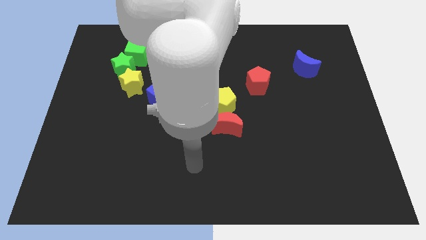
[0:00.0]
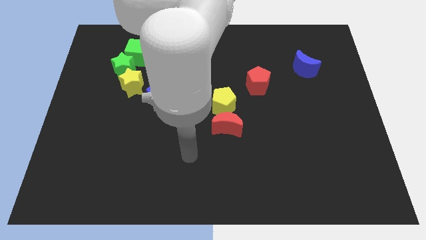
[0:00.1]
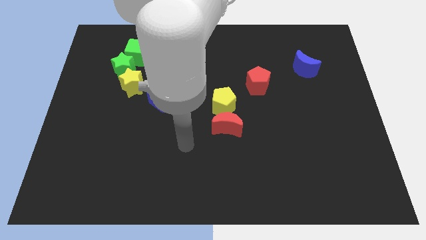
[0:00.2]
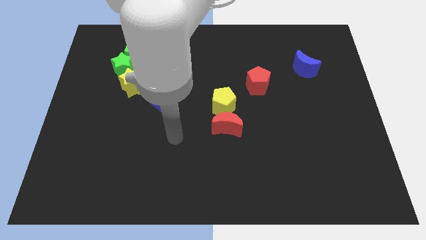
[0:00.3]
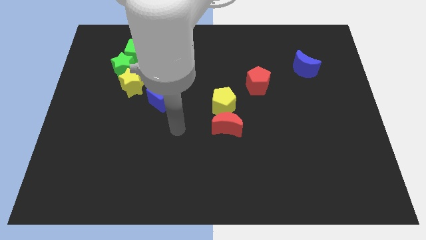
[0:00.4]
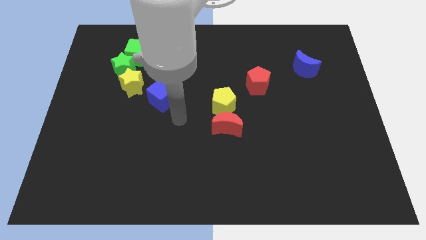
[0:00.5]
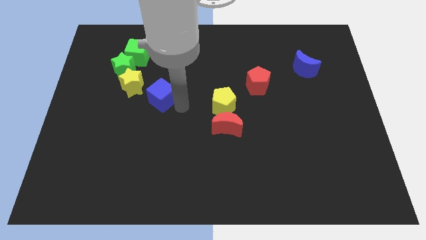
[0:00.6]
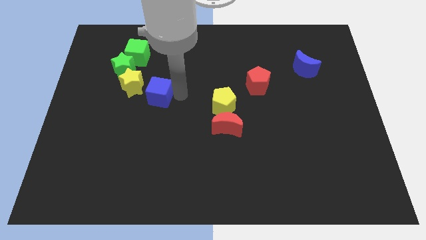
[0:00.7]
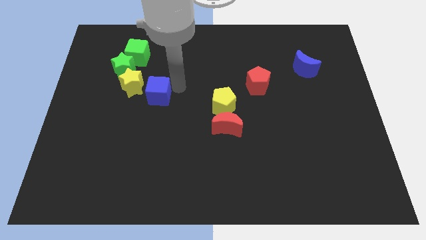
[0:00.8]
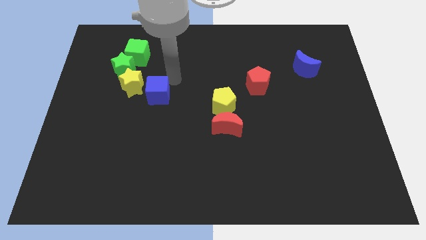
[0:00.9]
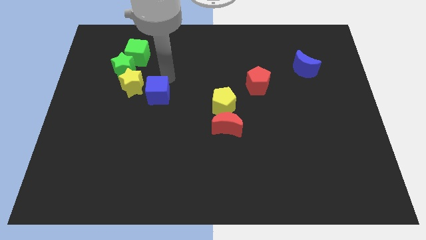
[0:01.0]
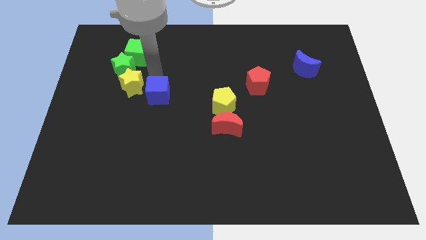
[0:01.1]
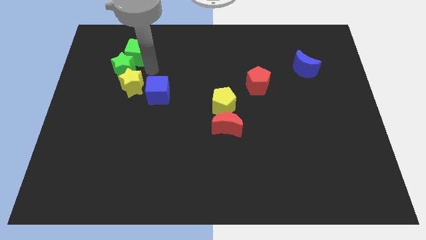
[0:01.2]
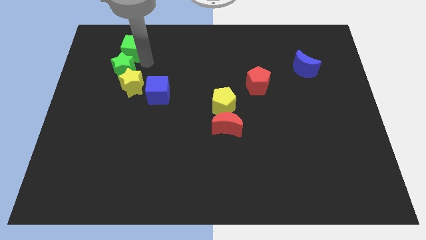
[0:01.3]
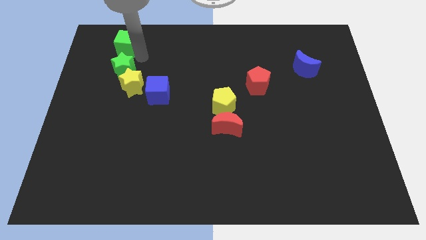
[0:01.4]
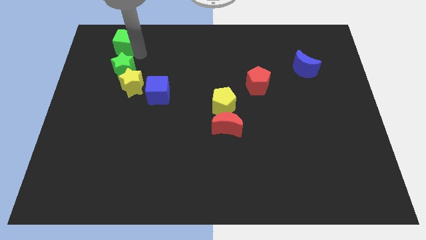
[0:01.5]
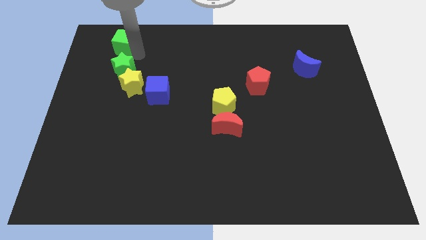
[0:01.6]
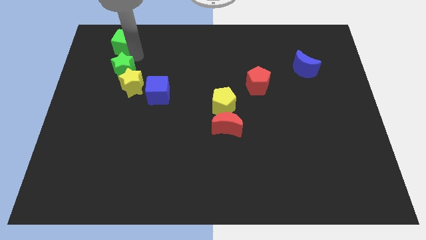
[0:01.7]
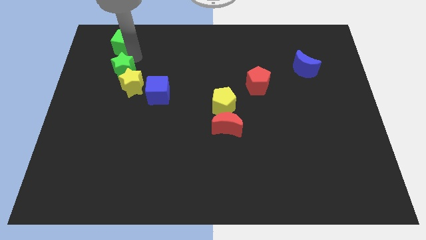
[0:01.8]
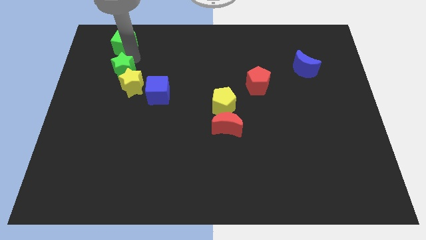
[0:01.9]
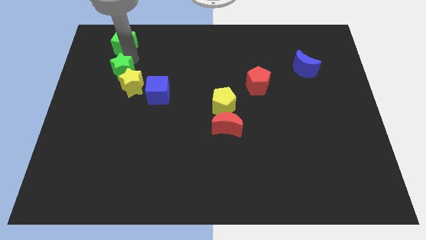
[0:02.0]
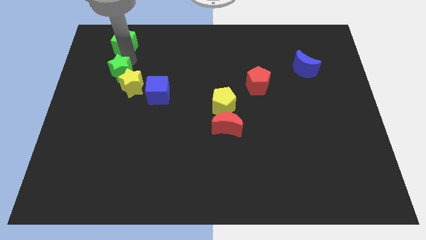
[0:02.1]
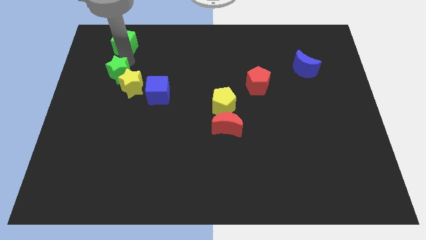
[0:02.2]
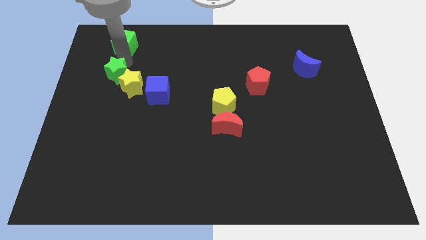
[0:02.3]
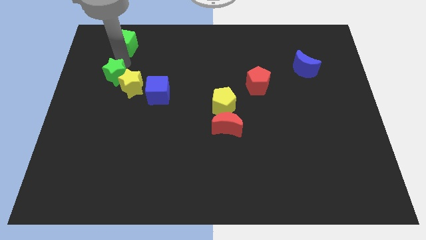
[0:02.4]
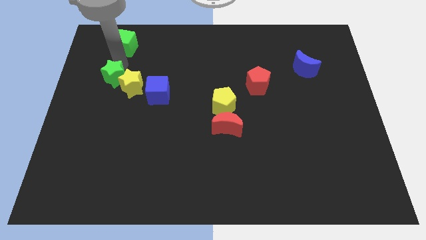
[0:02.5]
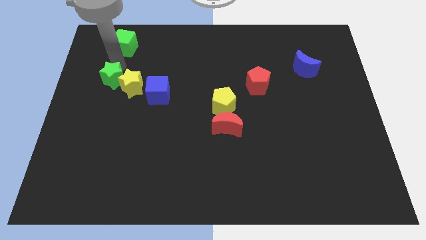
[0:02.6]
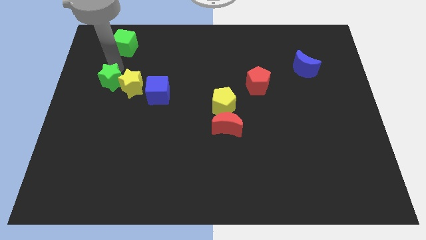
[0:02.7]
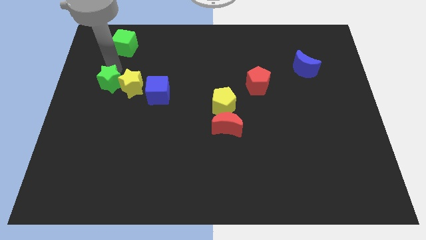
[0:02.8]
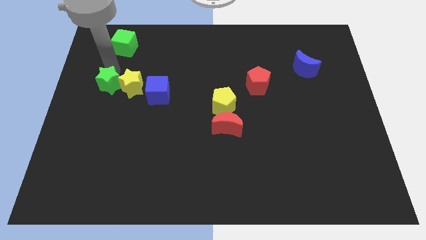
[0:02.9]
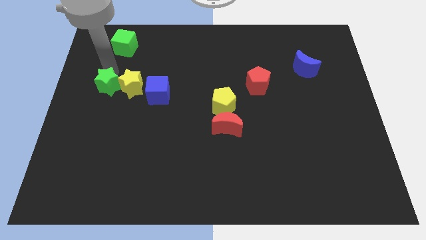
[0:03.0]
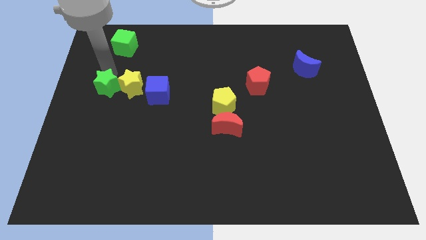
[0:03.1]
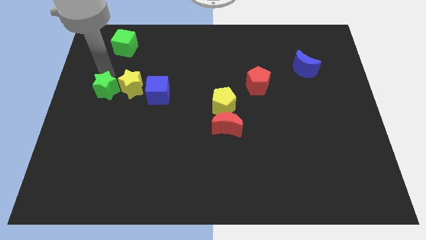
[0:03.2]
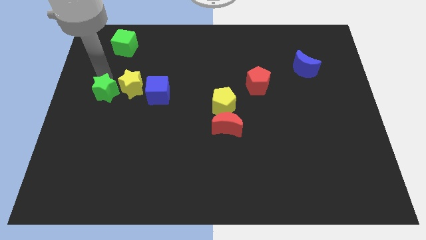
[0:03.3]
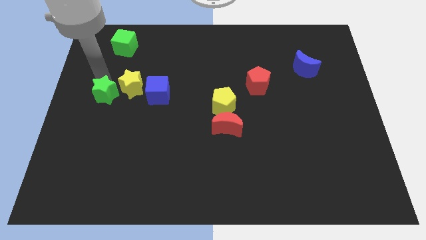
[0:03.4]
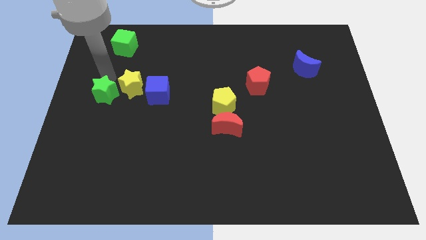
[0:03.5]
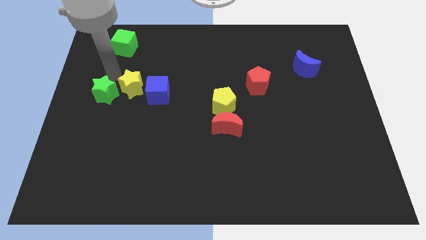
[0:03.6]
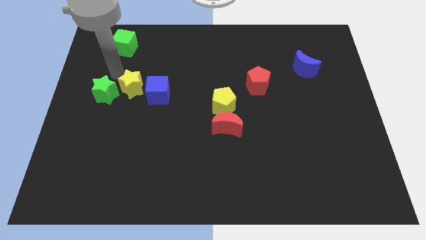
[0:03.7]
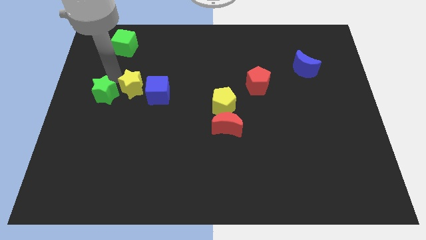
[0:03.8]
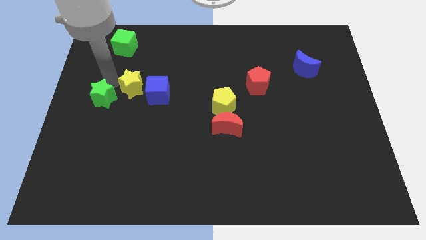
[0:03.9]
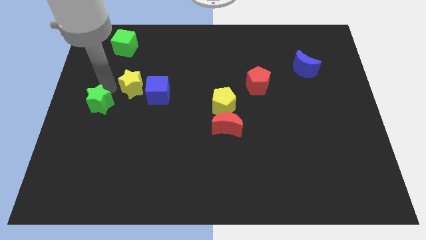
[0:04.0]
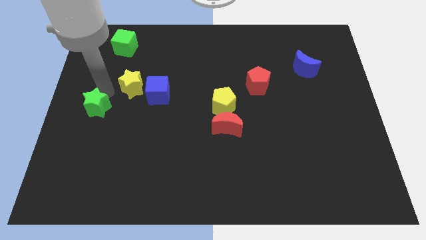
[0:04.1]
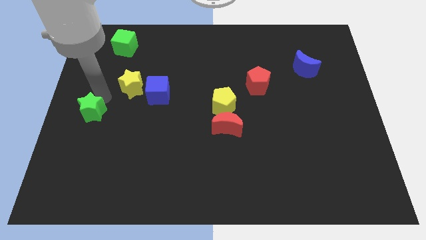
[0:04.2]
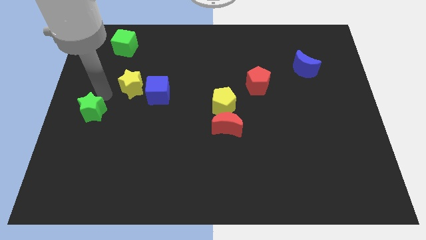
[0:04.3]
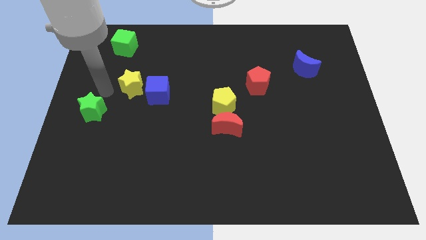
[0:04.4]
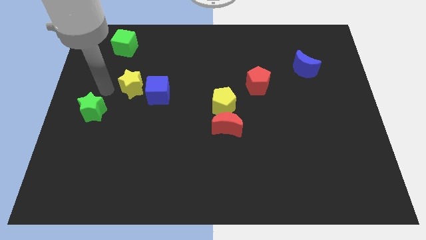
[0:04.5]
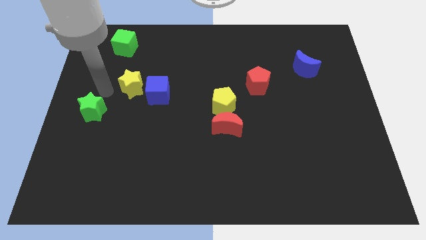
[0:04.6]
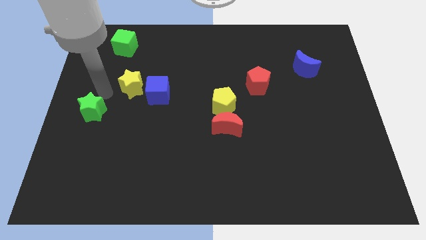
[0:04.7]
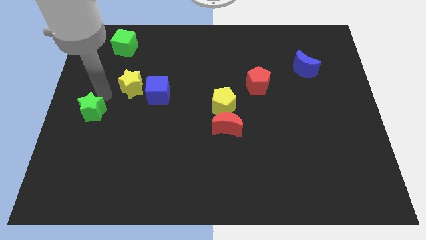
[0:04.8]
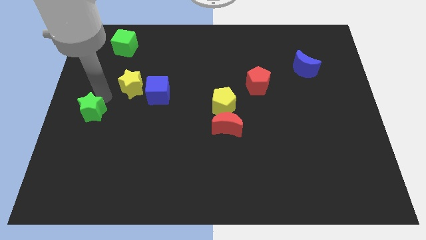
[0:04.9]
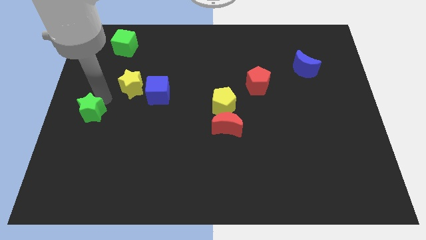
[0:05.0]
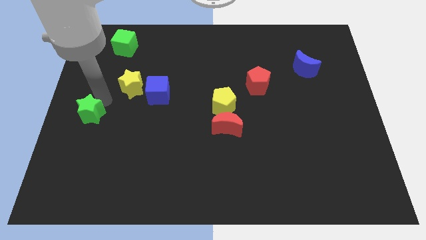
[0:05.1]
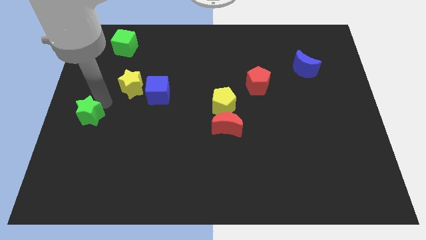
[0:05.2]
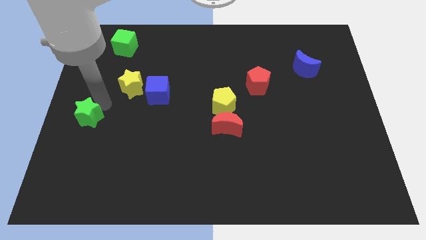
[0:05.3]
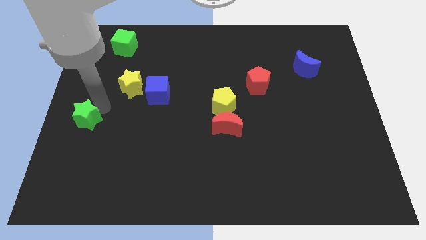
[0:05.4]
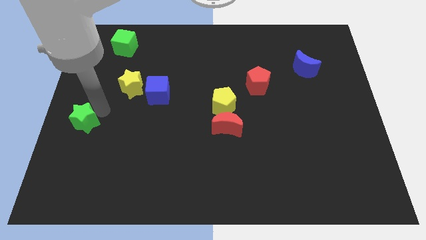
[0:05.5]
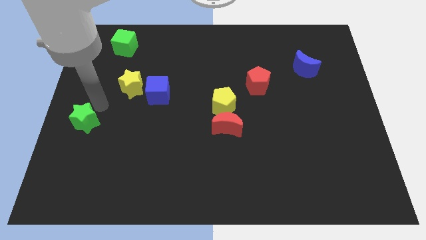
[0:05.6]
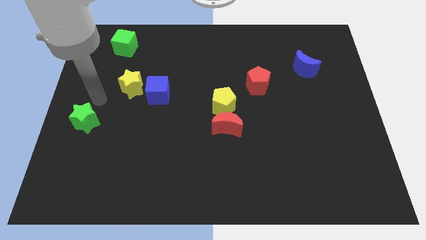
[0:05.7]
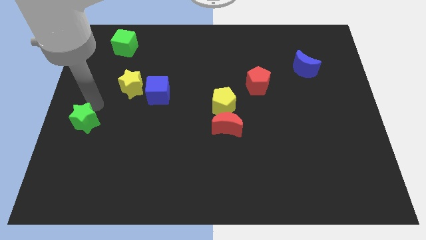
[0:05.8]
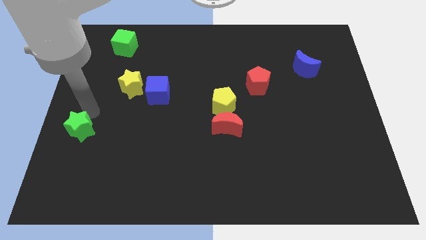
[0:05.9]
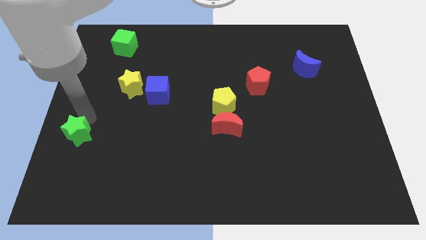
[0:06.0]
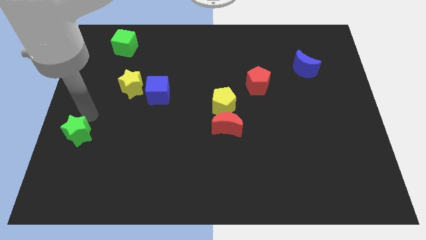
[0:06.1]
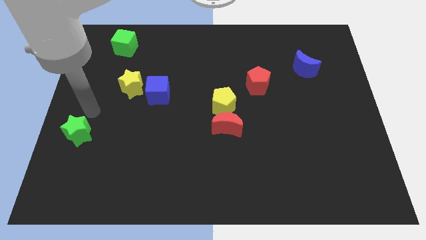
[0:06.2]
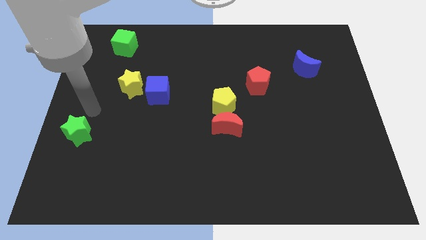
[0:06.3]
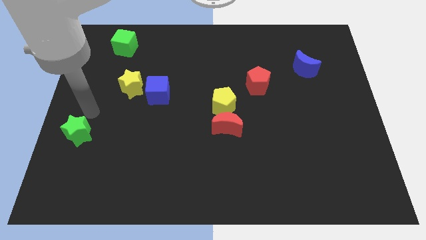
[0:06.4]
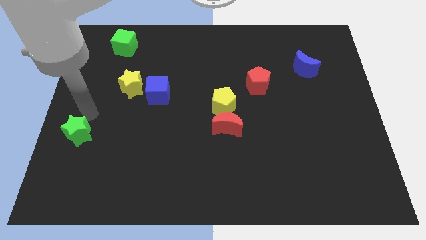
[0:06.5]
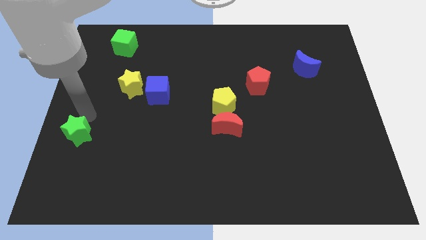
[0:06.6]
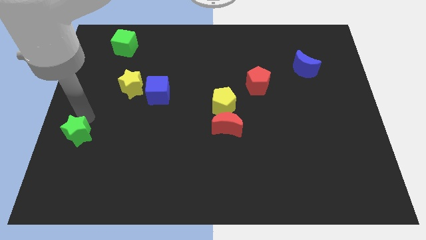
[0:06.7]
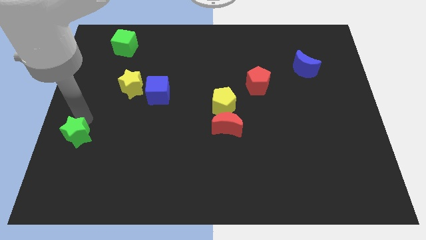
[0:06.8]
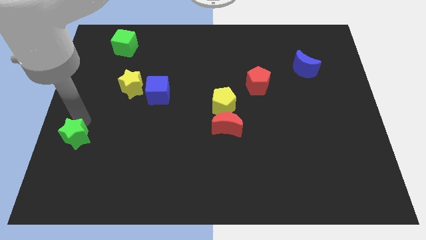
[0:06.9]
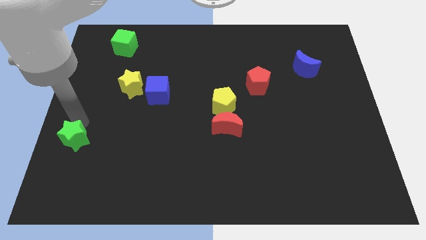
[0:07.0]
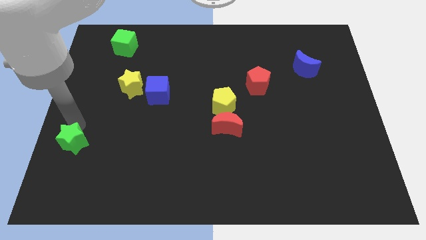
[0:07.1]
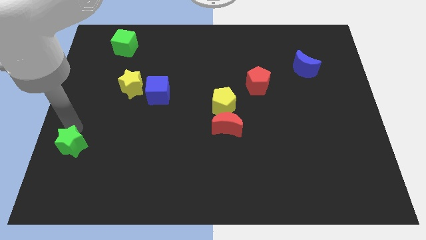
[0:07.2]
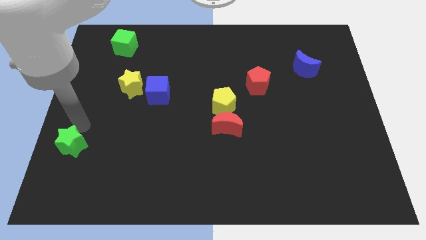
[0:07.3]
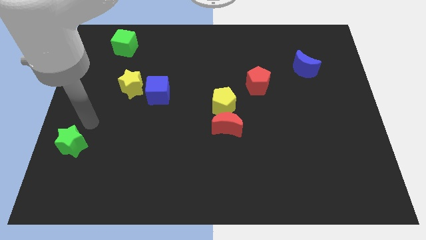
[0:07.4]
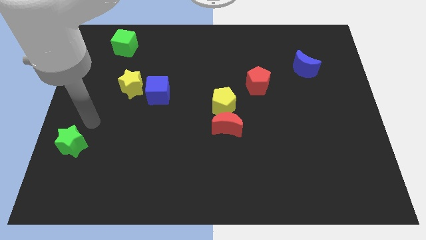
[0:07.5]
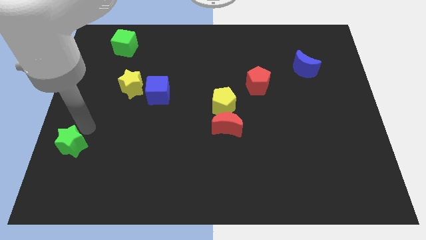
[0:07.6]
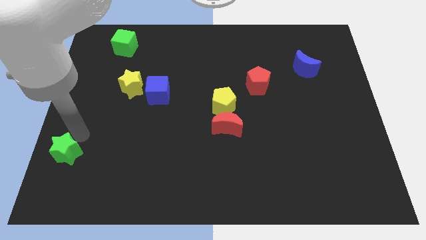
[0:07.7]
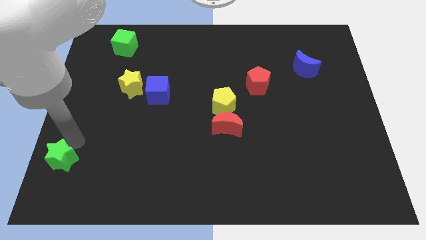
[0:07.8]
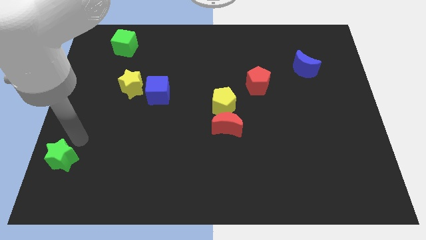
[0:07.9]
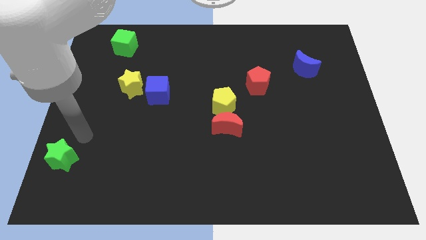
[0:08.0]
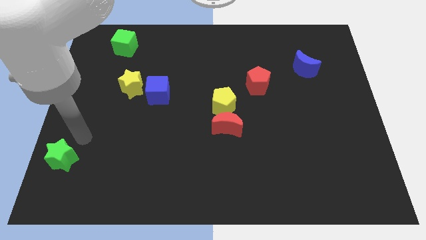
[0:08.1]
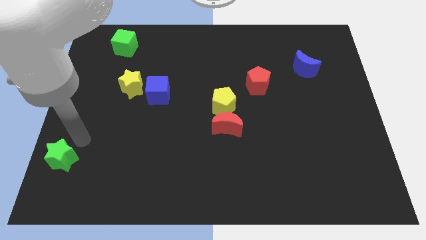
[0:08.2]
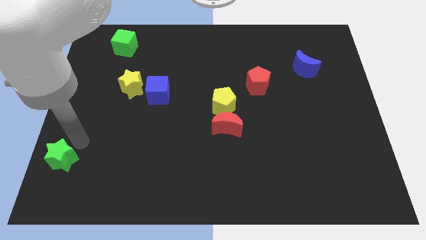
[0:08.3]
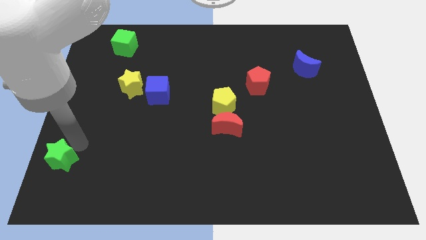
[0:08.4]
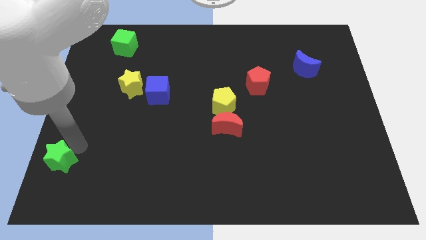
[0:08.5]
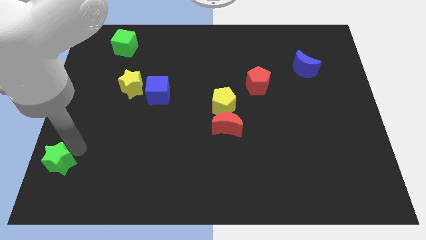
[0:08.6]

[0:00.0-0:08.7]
push the green star to the lower left corner
